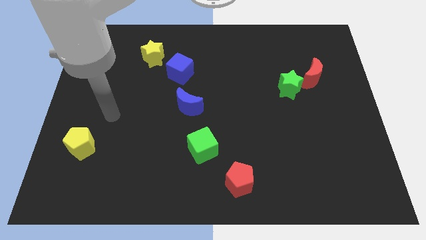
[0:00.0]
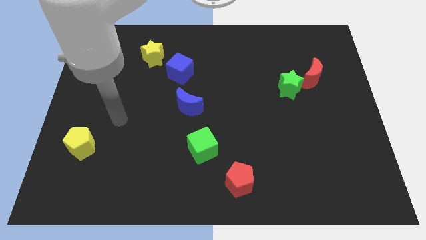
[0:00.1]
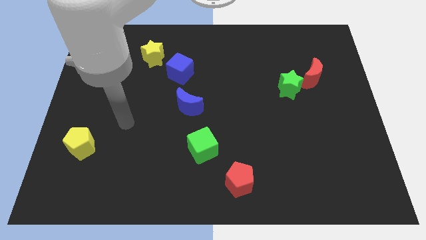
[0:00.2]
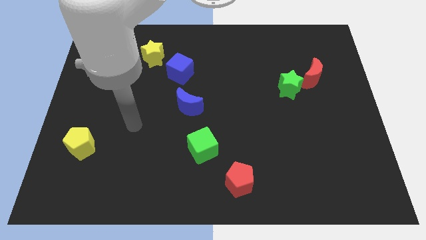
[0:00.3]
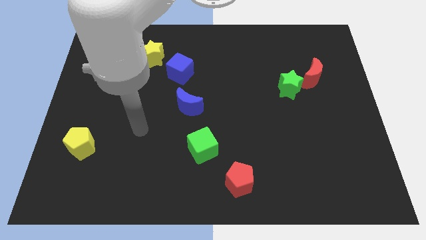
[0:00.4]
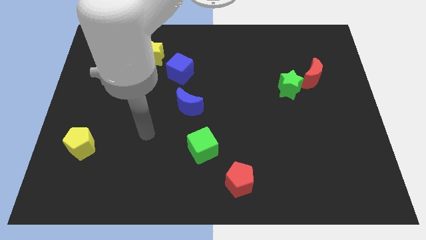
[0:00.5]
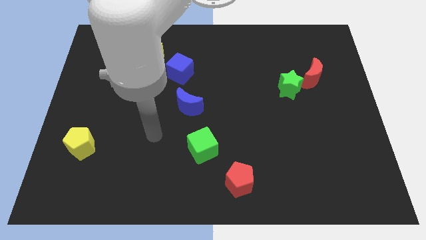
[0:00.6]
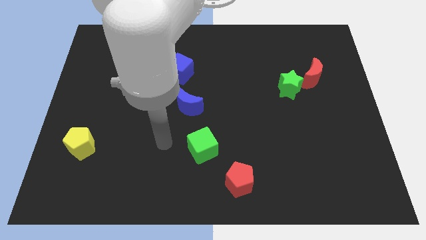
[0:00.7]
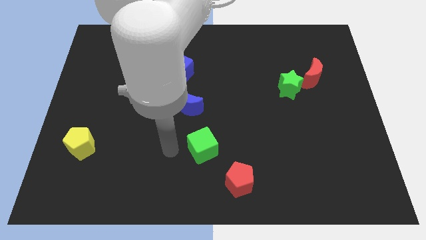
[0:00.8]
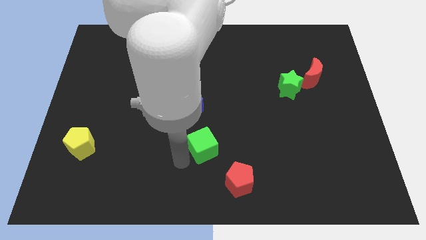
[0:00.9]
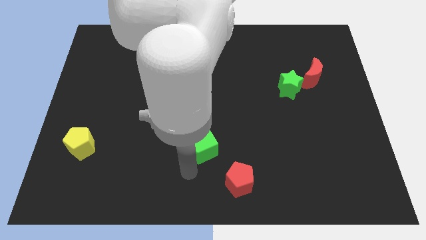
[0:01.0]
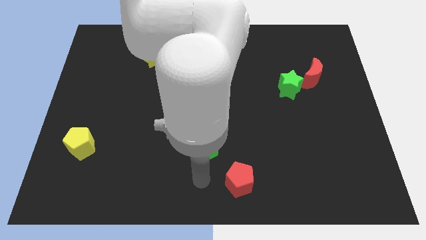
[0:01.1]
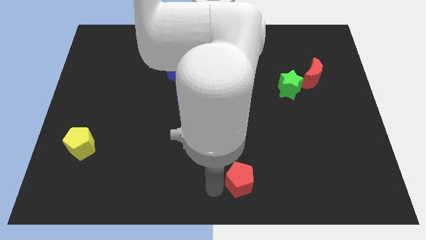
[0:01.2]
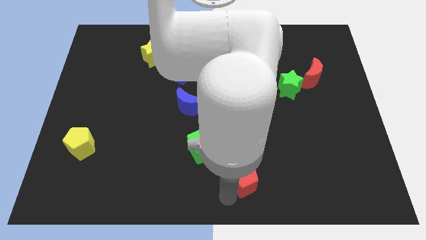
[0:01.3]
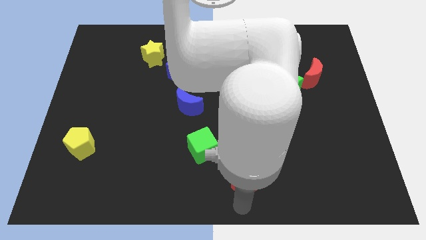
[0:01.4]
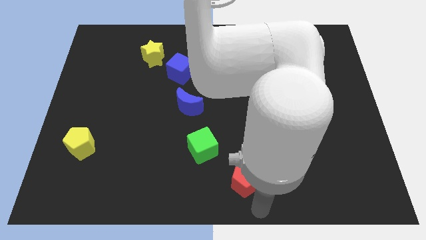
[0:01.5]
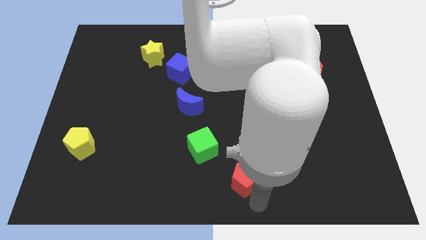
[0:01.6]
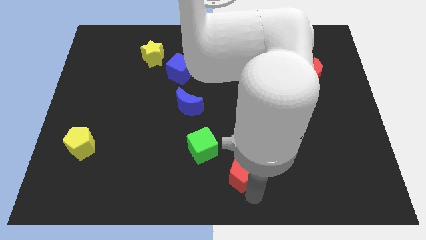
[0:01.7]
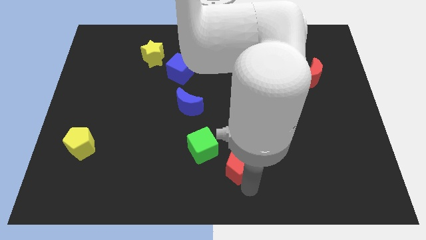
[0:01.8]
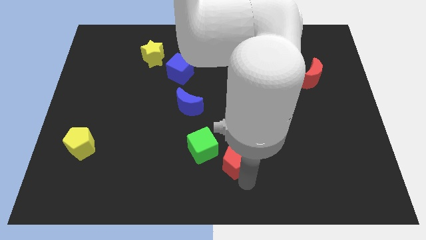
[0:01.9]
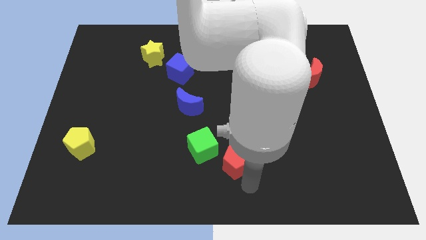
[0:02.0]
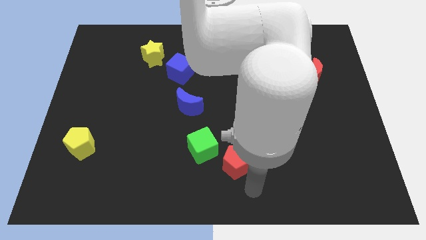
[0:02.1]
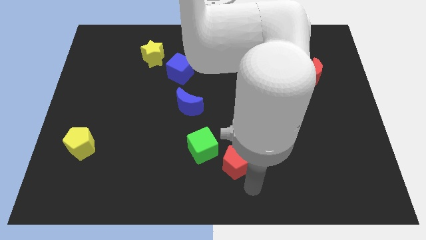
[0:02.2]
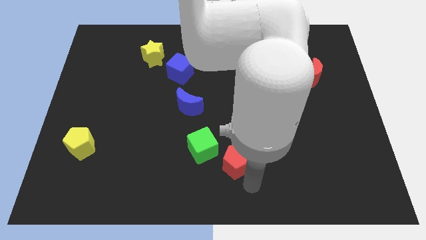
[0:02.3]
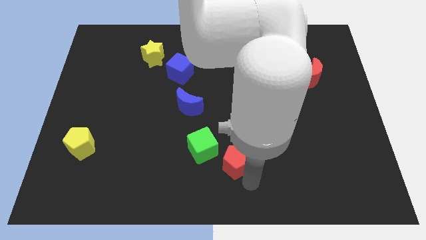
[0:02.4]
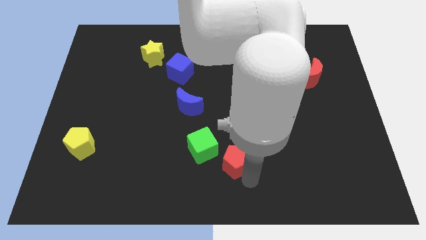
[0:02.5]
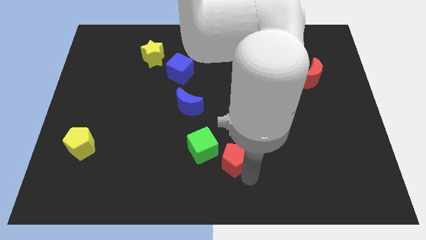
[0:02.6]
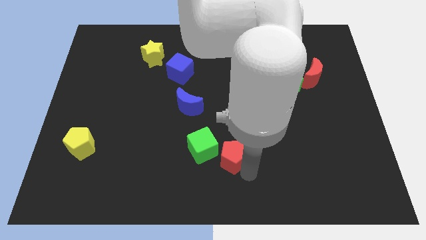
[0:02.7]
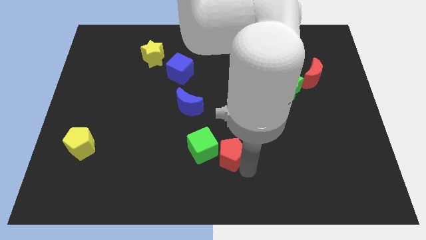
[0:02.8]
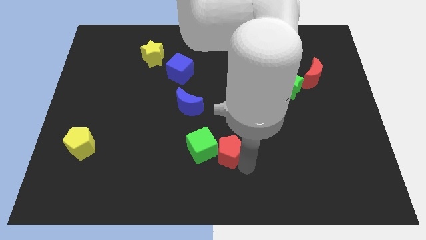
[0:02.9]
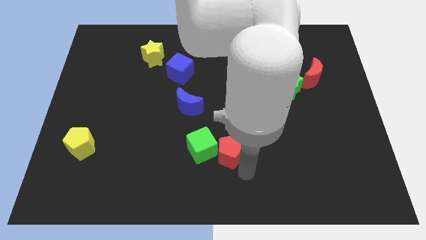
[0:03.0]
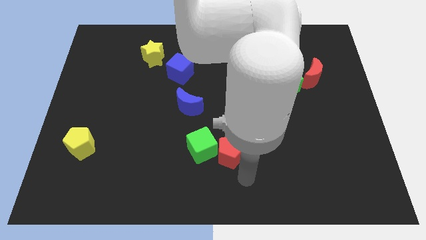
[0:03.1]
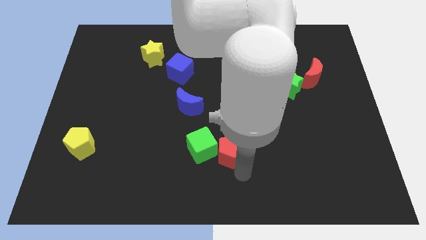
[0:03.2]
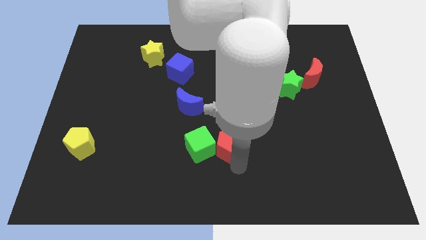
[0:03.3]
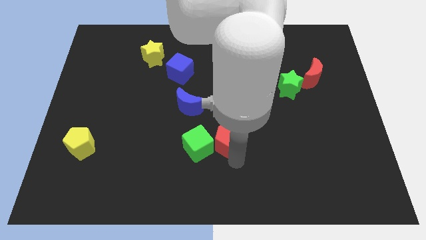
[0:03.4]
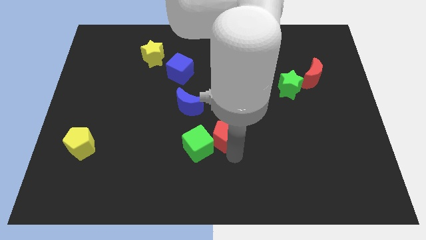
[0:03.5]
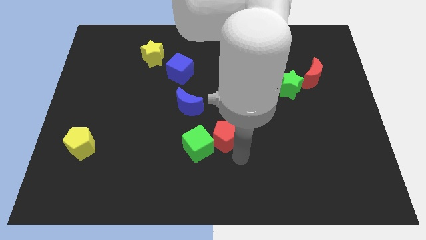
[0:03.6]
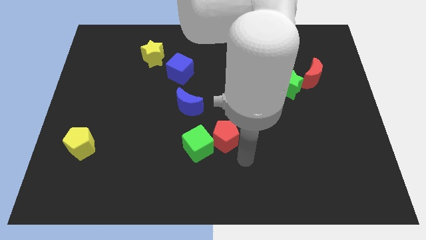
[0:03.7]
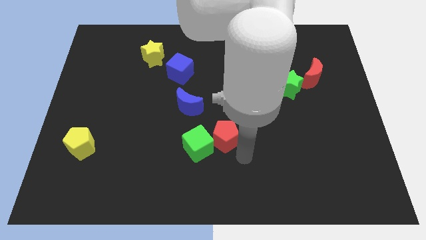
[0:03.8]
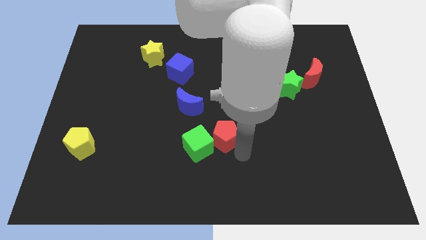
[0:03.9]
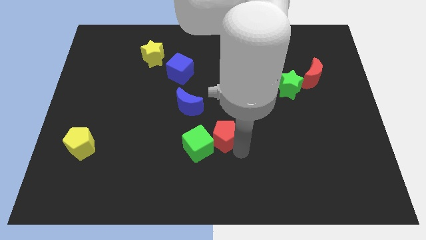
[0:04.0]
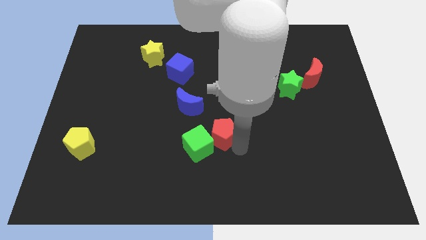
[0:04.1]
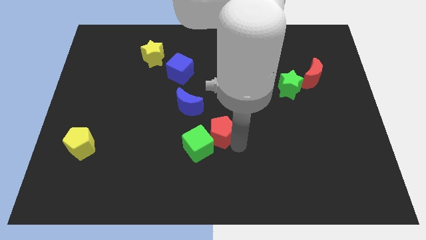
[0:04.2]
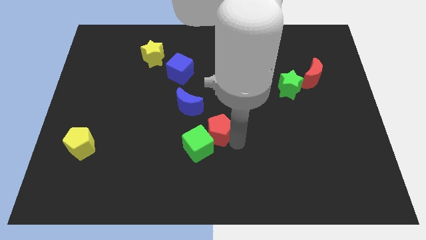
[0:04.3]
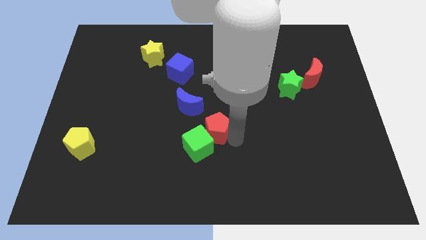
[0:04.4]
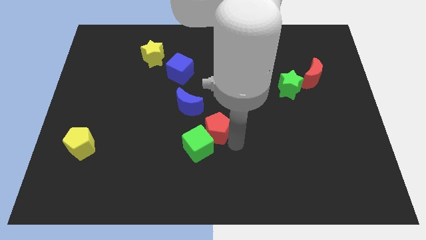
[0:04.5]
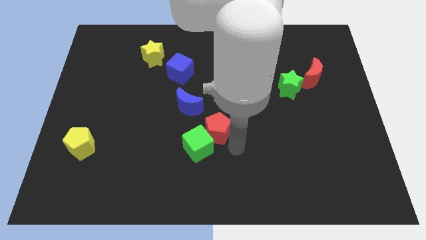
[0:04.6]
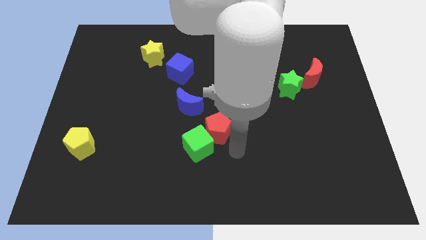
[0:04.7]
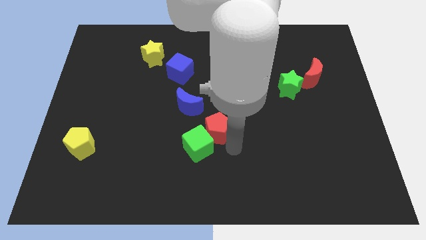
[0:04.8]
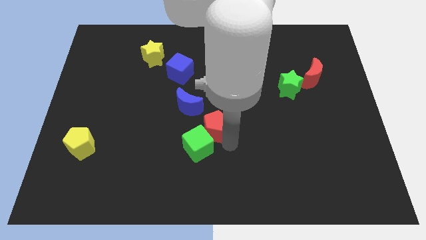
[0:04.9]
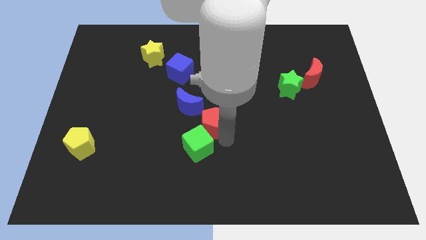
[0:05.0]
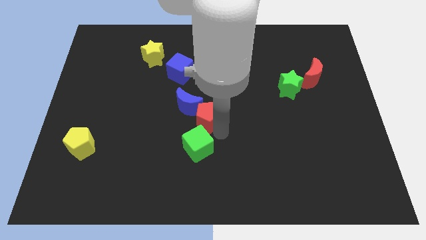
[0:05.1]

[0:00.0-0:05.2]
put the red pentagon to the blue moon

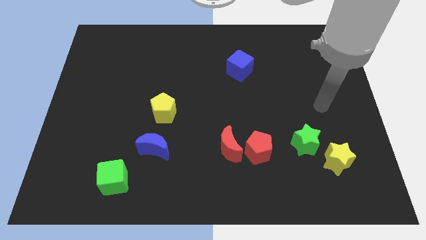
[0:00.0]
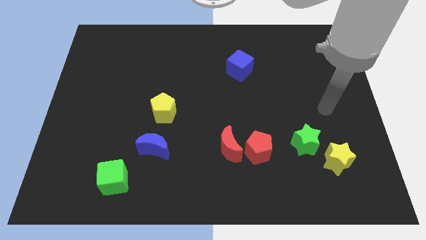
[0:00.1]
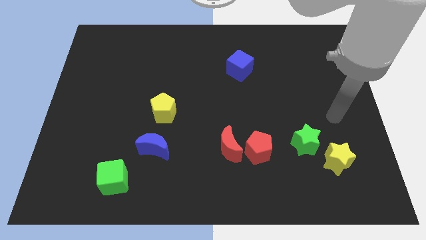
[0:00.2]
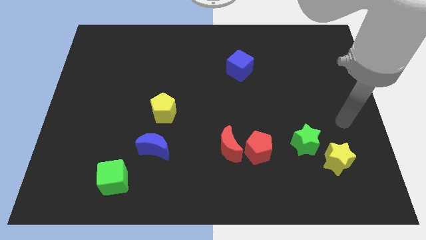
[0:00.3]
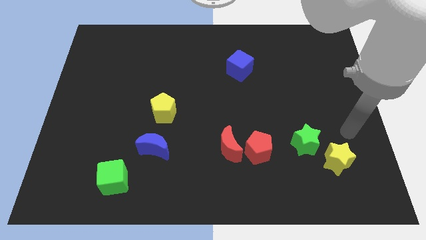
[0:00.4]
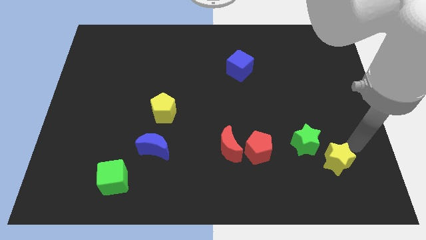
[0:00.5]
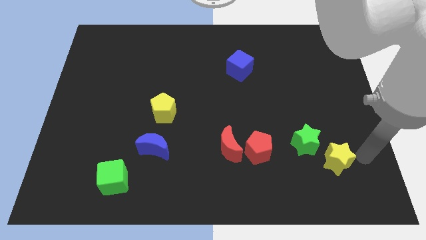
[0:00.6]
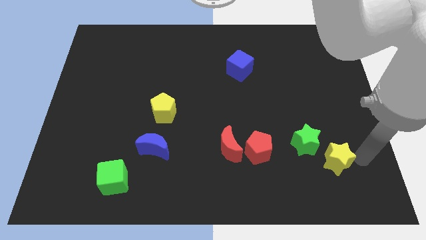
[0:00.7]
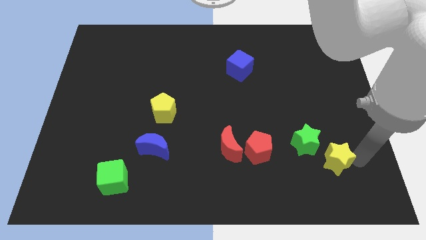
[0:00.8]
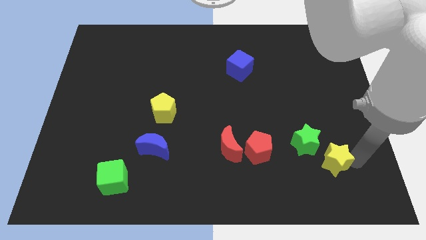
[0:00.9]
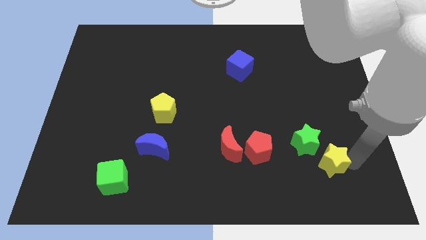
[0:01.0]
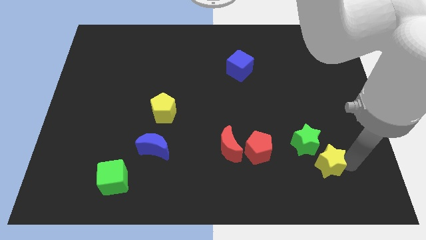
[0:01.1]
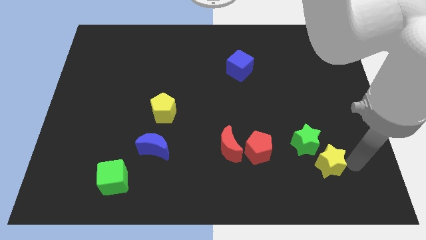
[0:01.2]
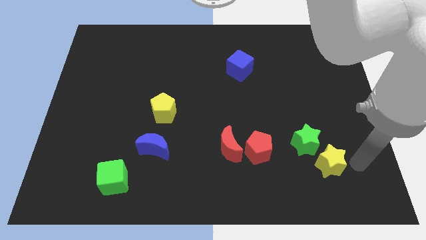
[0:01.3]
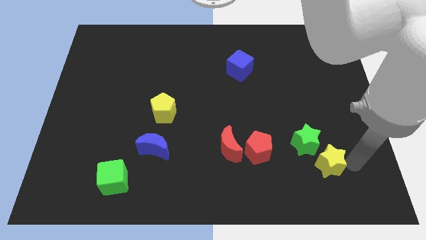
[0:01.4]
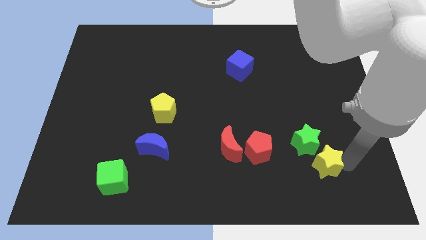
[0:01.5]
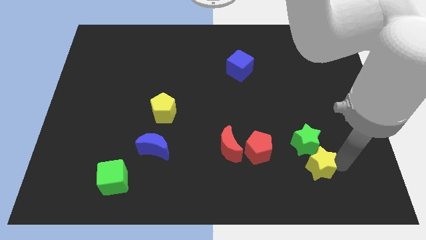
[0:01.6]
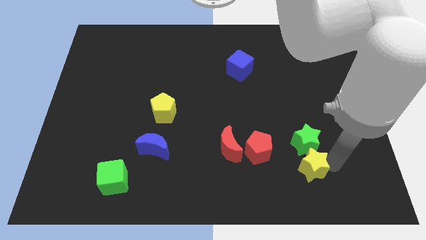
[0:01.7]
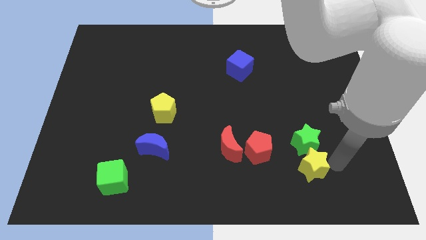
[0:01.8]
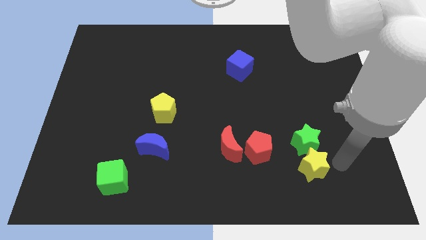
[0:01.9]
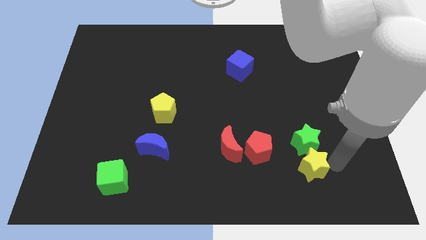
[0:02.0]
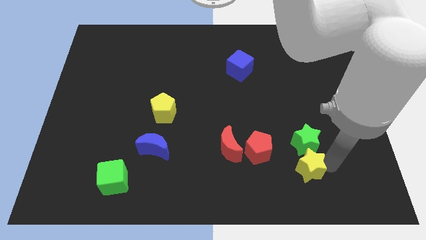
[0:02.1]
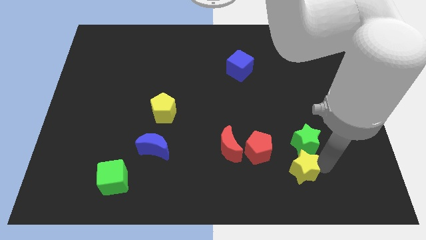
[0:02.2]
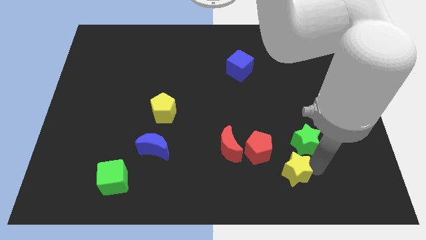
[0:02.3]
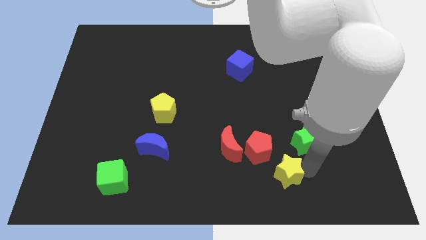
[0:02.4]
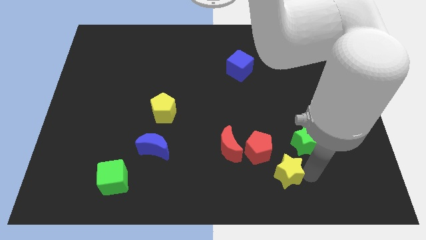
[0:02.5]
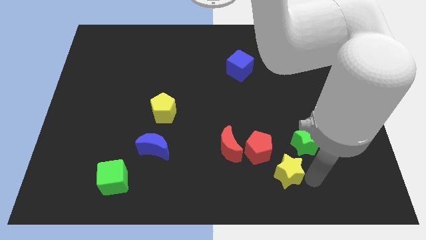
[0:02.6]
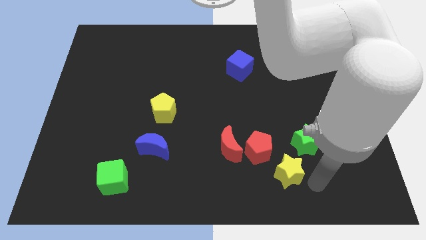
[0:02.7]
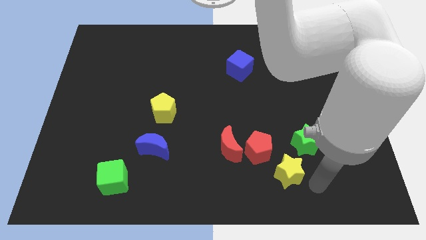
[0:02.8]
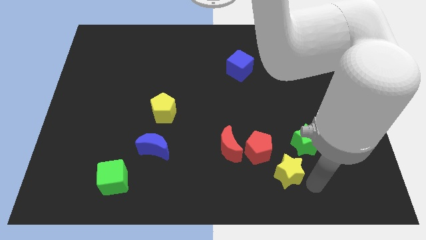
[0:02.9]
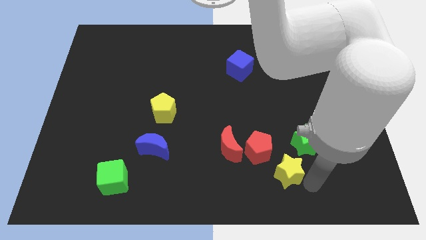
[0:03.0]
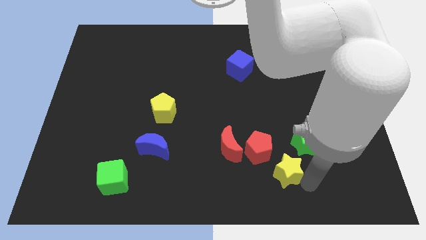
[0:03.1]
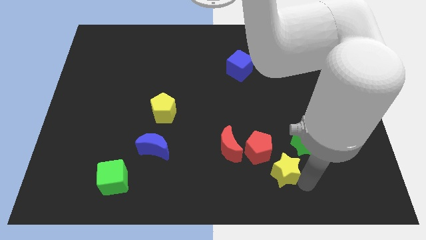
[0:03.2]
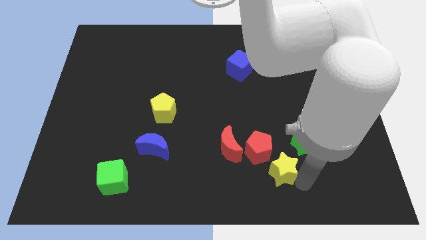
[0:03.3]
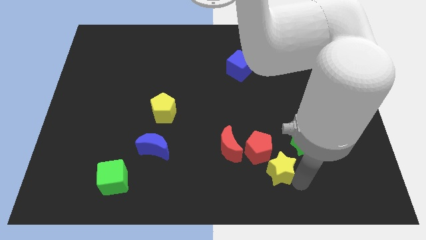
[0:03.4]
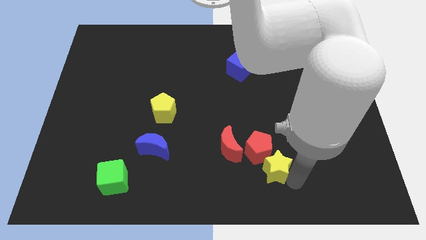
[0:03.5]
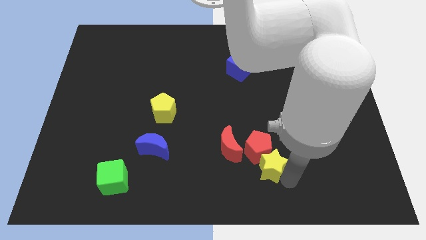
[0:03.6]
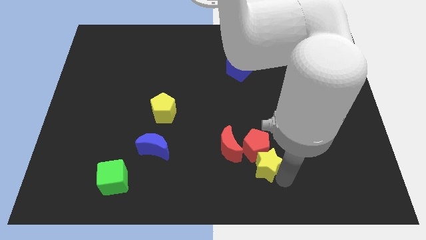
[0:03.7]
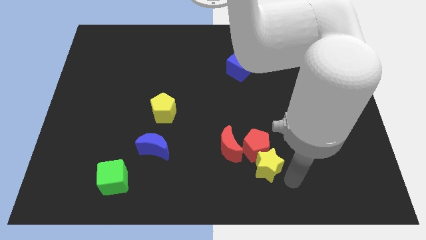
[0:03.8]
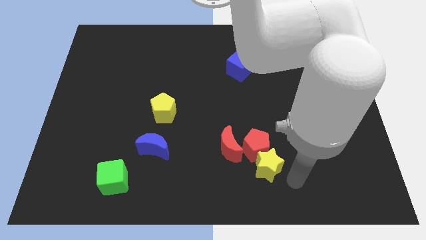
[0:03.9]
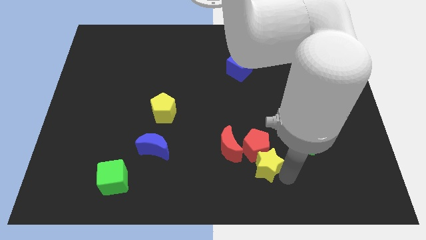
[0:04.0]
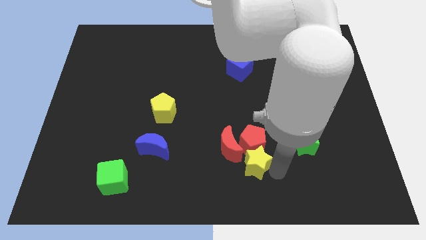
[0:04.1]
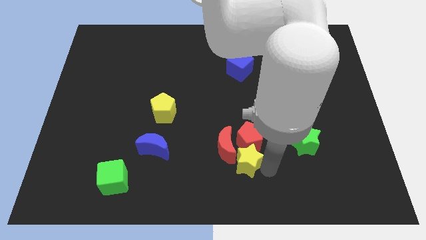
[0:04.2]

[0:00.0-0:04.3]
slide the yellow star towards the red moon
